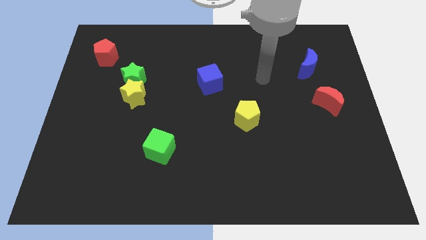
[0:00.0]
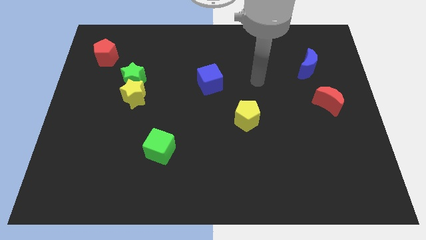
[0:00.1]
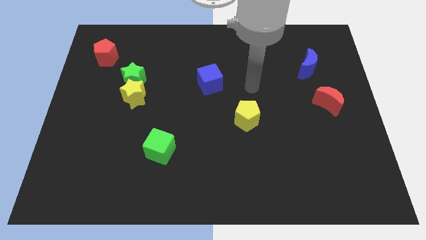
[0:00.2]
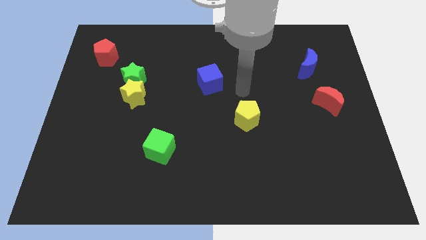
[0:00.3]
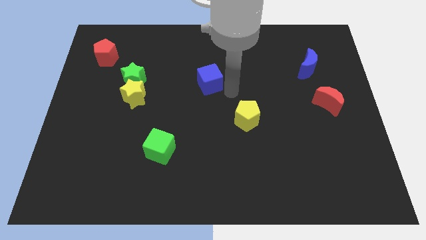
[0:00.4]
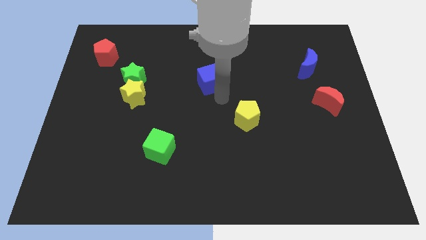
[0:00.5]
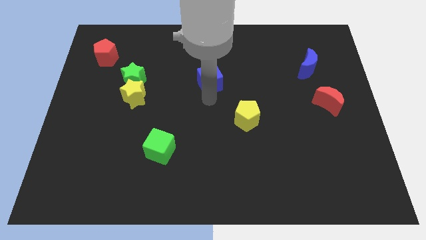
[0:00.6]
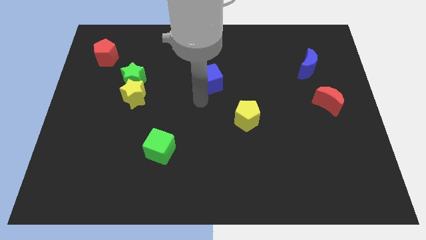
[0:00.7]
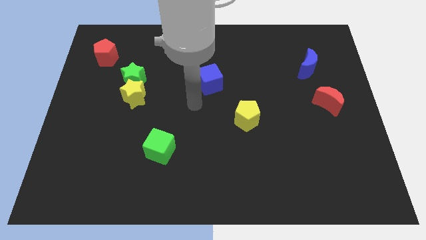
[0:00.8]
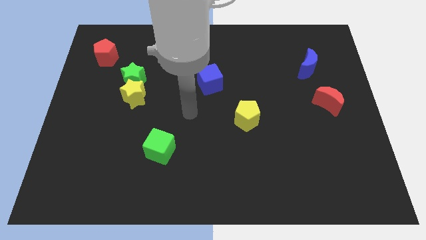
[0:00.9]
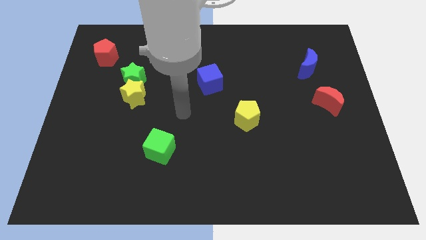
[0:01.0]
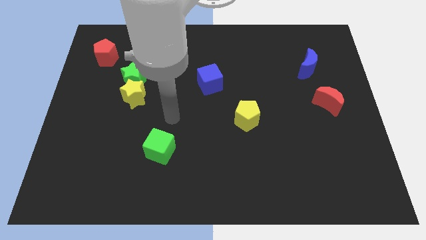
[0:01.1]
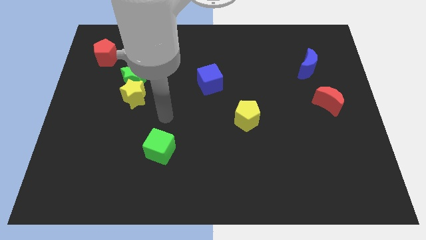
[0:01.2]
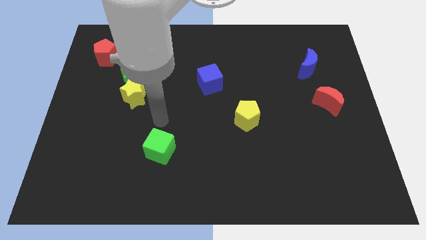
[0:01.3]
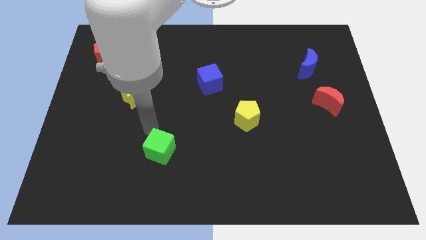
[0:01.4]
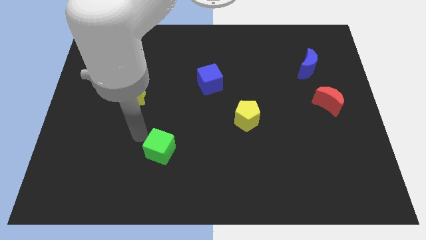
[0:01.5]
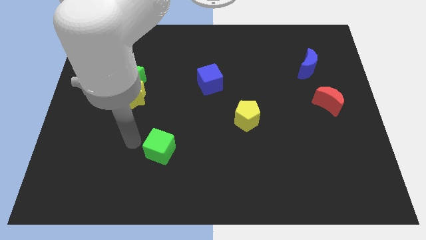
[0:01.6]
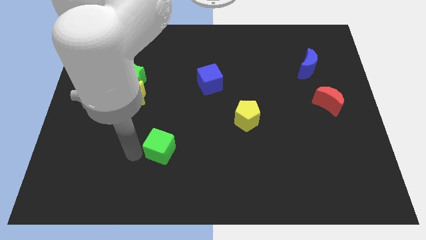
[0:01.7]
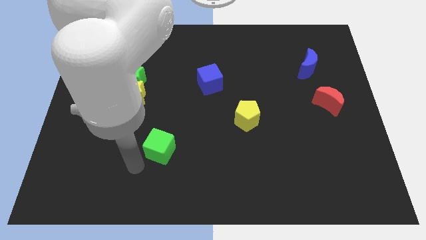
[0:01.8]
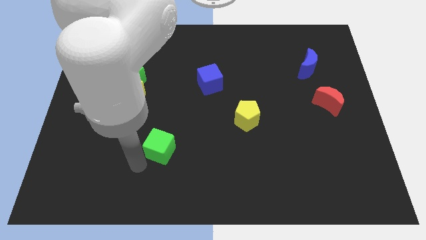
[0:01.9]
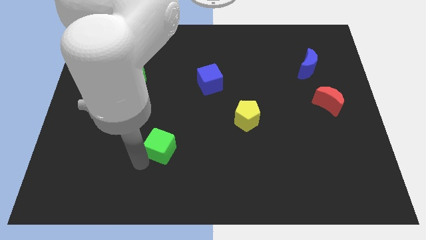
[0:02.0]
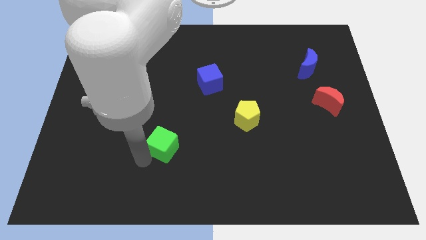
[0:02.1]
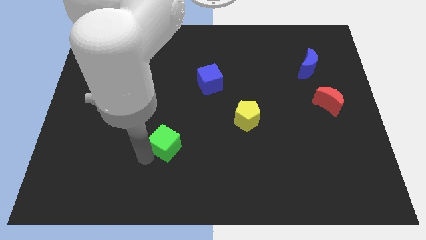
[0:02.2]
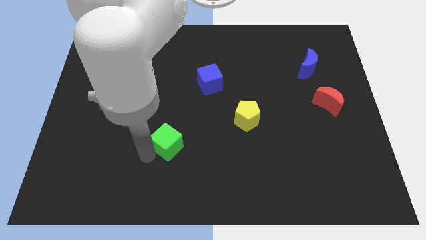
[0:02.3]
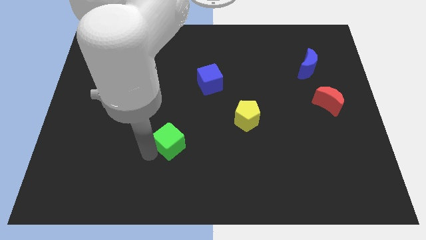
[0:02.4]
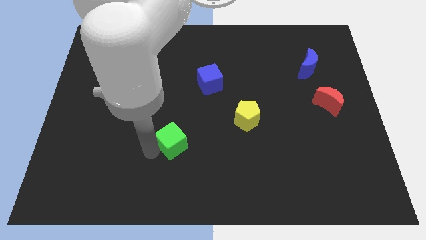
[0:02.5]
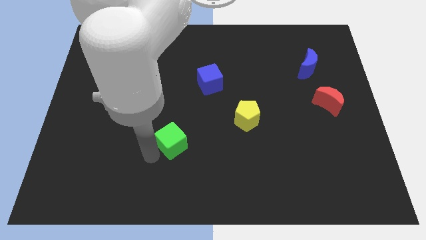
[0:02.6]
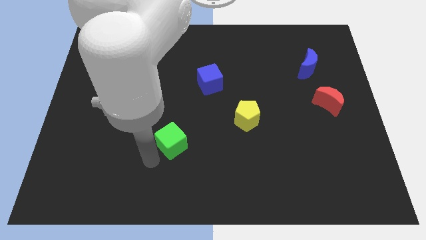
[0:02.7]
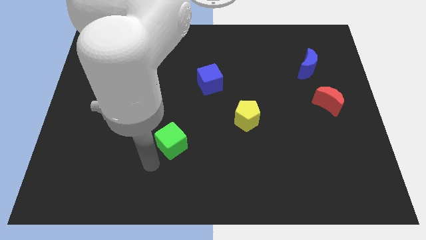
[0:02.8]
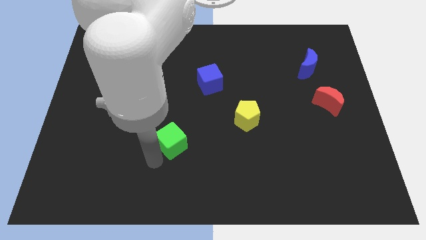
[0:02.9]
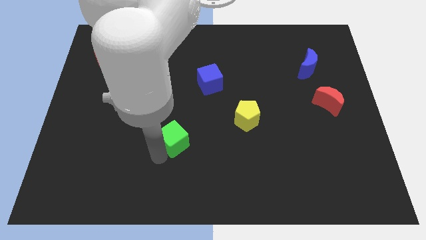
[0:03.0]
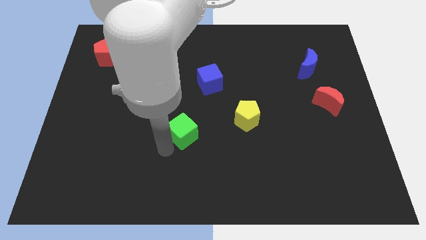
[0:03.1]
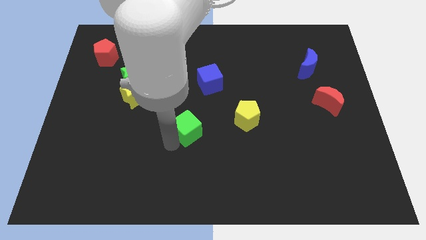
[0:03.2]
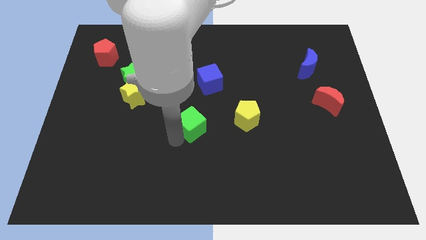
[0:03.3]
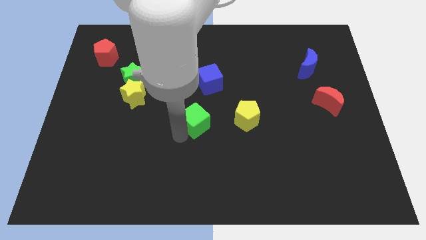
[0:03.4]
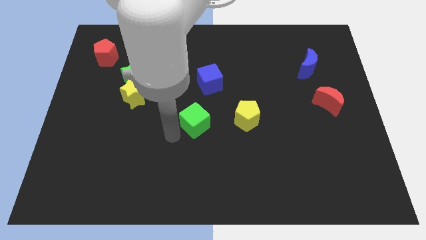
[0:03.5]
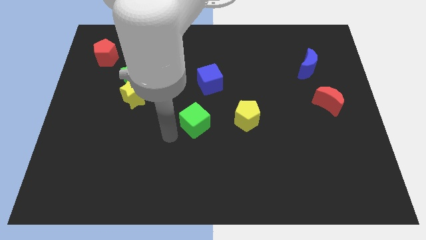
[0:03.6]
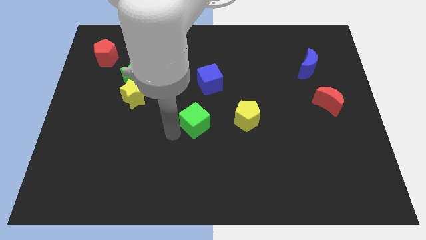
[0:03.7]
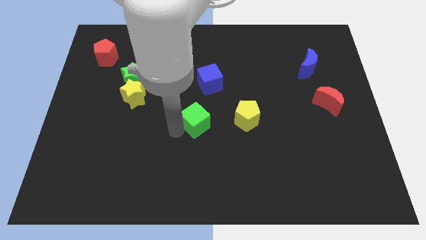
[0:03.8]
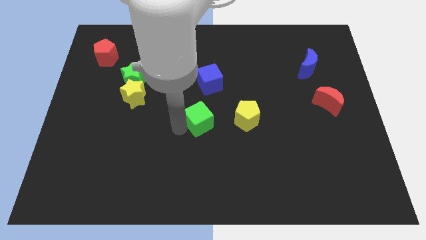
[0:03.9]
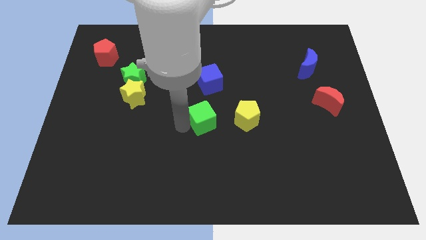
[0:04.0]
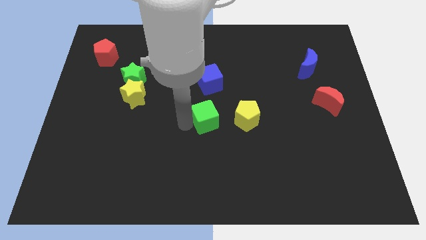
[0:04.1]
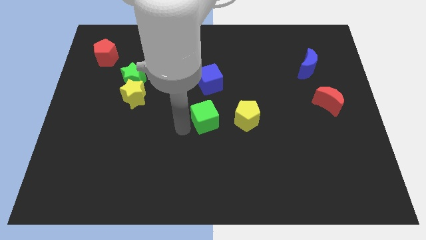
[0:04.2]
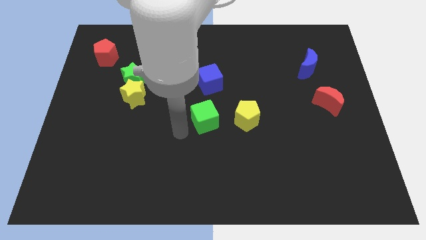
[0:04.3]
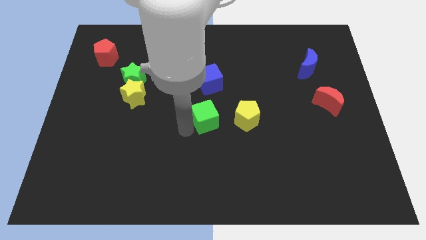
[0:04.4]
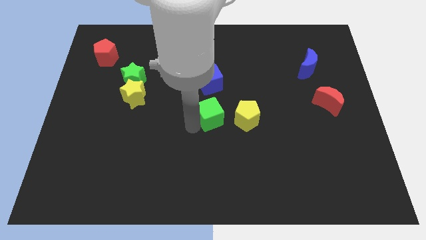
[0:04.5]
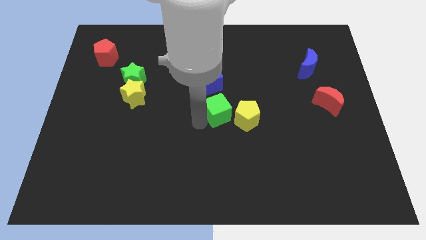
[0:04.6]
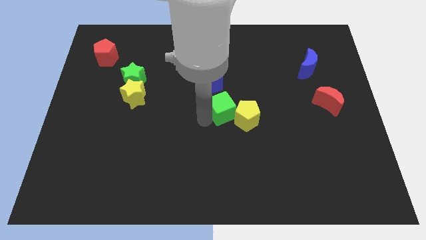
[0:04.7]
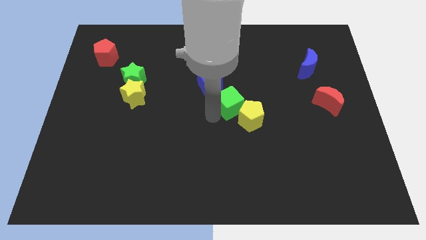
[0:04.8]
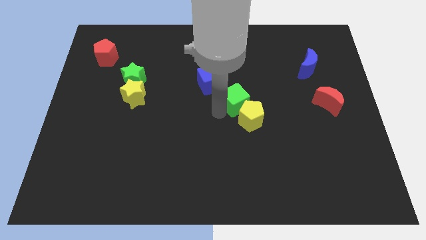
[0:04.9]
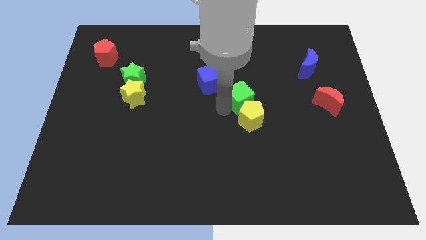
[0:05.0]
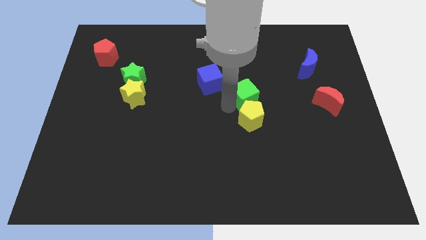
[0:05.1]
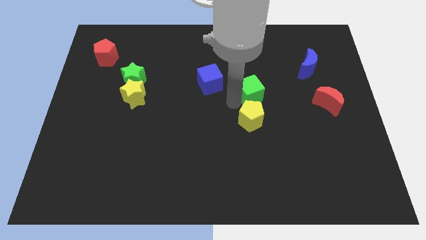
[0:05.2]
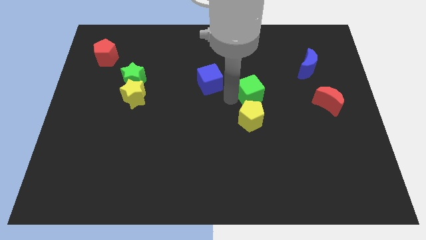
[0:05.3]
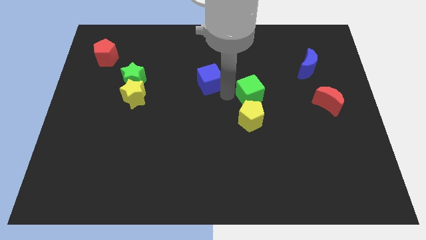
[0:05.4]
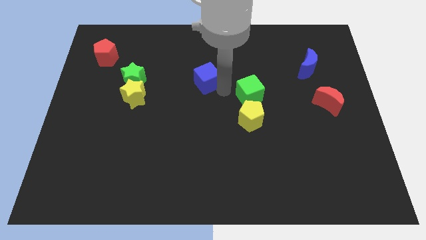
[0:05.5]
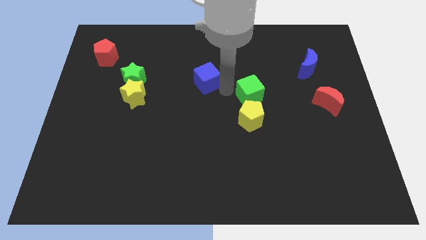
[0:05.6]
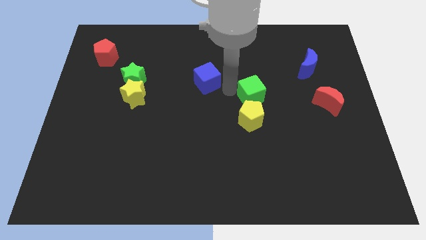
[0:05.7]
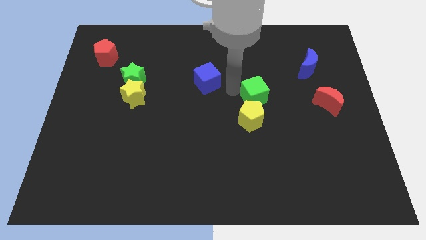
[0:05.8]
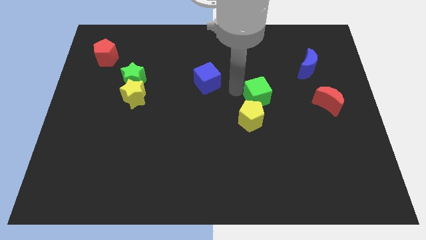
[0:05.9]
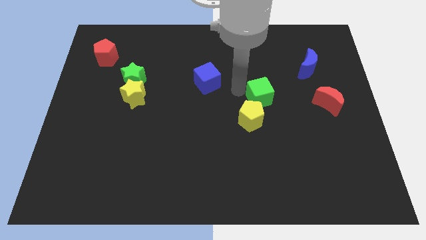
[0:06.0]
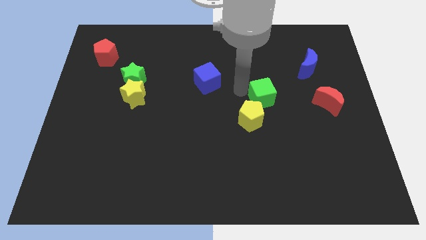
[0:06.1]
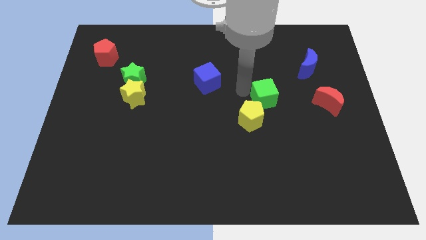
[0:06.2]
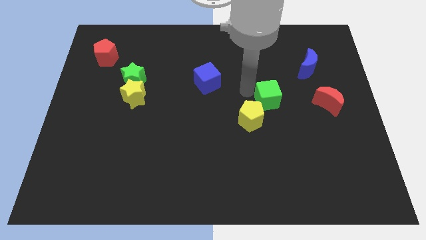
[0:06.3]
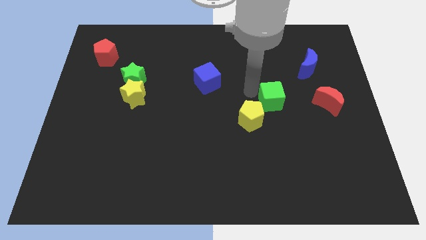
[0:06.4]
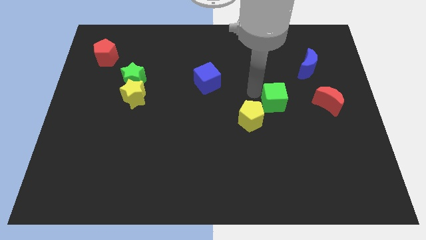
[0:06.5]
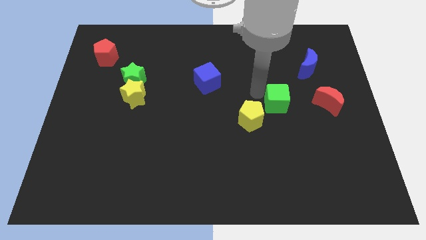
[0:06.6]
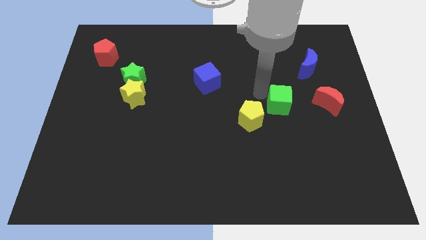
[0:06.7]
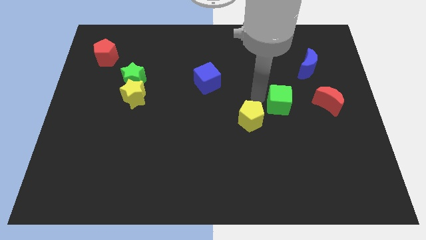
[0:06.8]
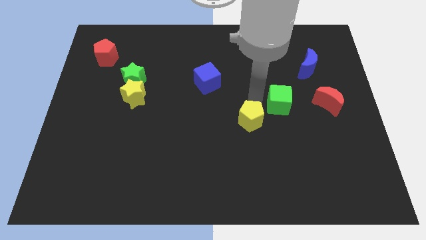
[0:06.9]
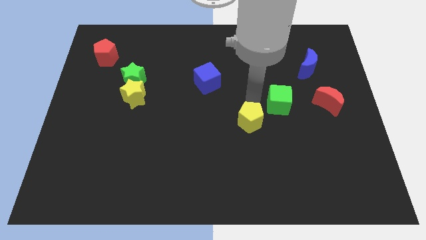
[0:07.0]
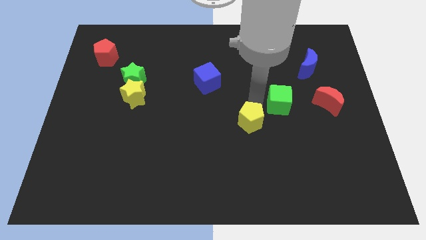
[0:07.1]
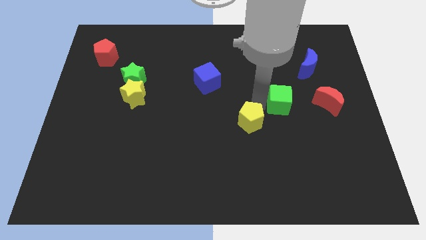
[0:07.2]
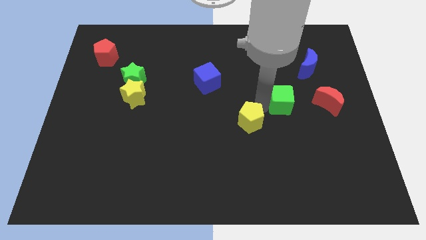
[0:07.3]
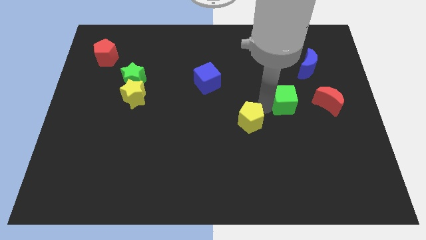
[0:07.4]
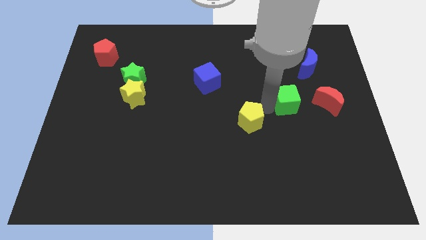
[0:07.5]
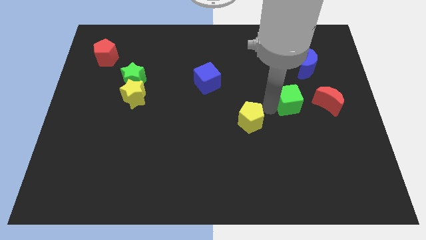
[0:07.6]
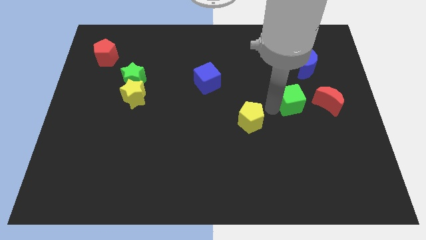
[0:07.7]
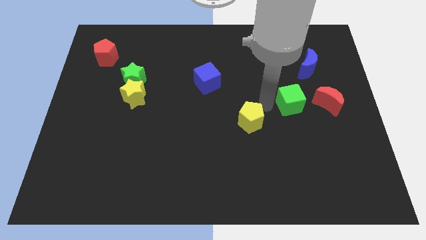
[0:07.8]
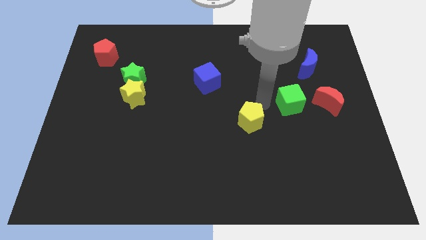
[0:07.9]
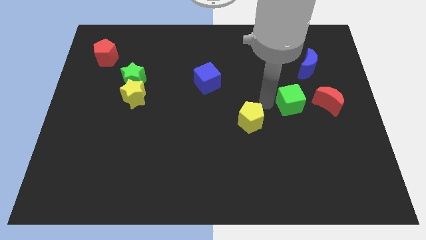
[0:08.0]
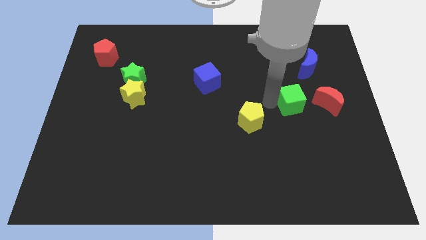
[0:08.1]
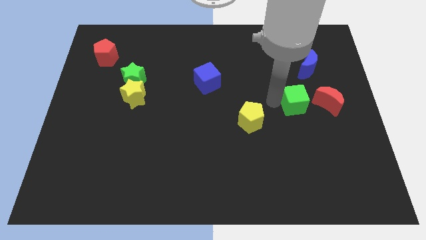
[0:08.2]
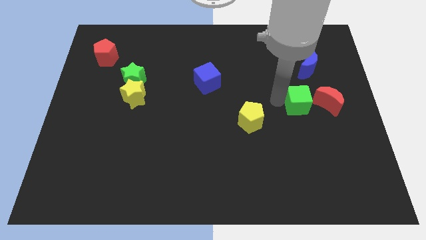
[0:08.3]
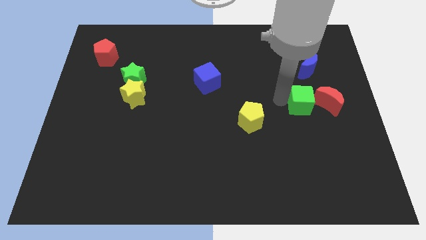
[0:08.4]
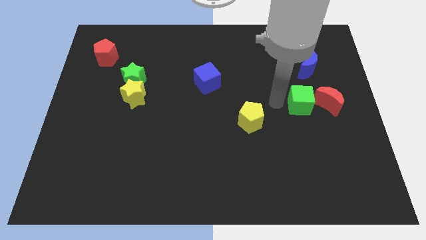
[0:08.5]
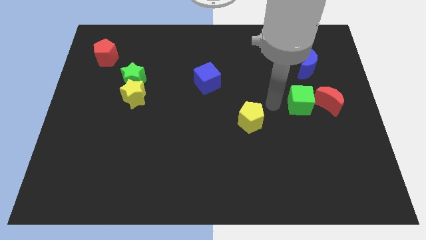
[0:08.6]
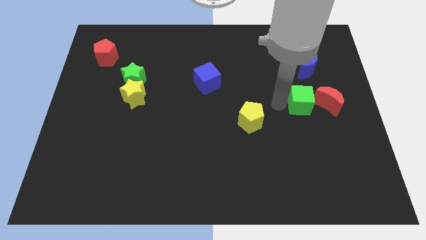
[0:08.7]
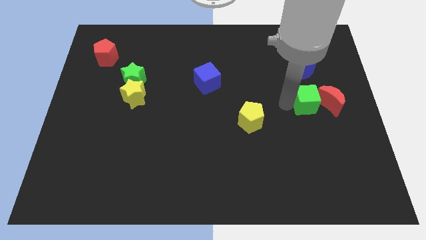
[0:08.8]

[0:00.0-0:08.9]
slide the green cube close to the red moon
